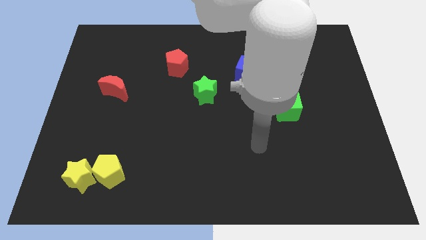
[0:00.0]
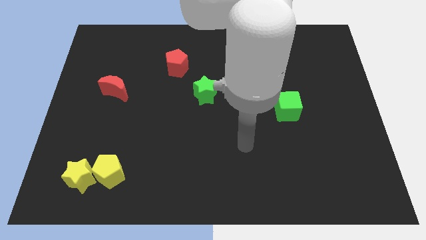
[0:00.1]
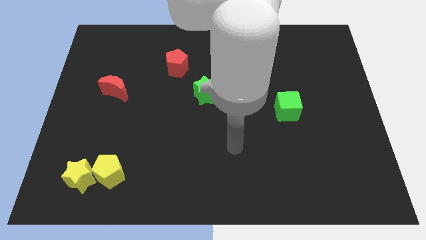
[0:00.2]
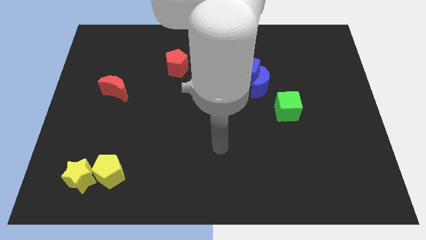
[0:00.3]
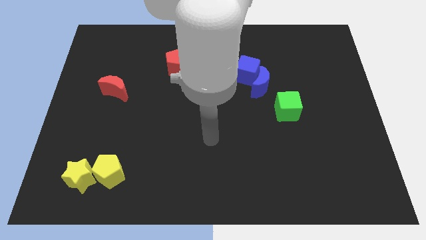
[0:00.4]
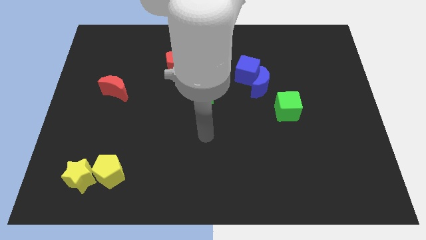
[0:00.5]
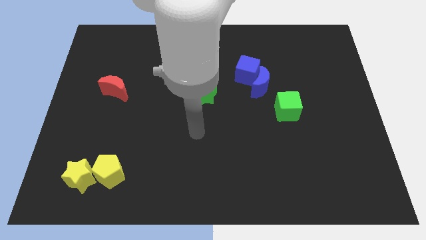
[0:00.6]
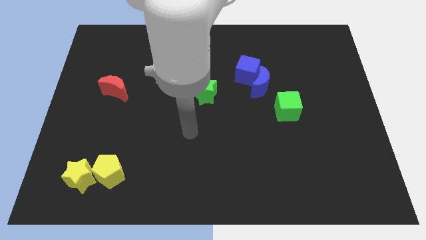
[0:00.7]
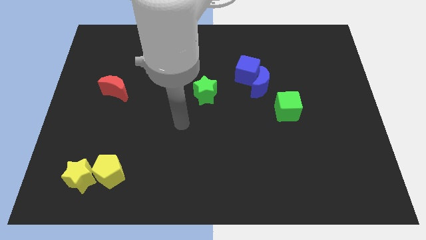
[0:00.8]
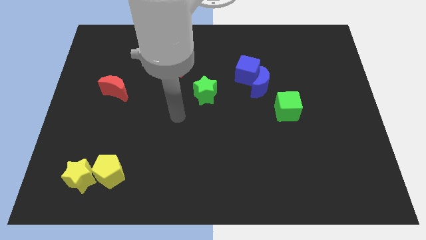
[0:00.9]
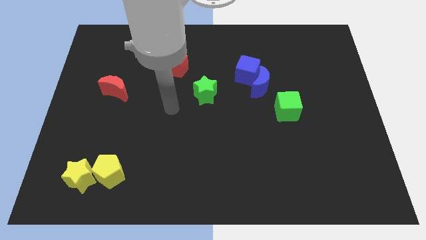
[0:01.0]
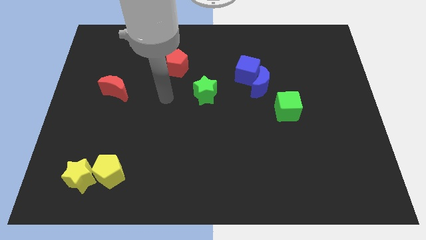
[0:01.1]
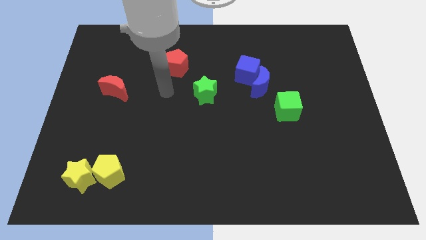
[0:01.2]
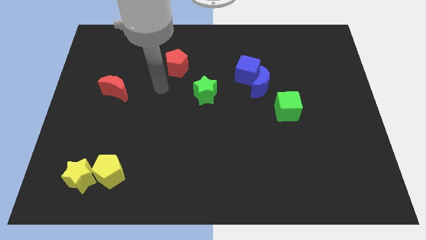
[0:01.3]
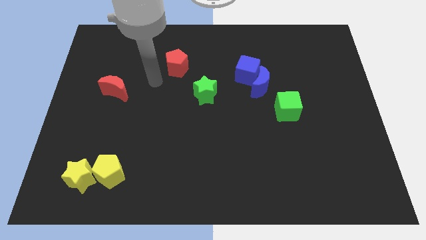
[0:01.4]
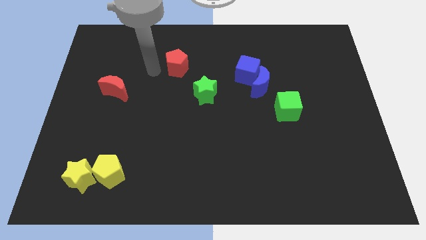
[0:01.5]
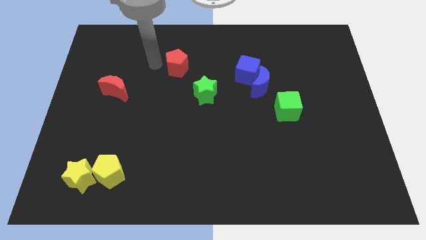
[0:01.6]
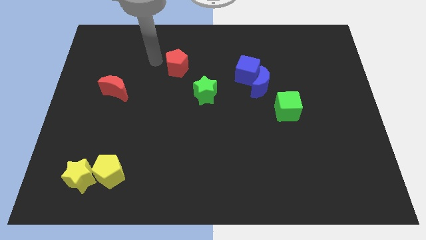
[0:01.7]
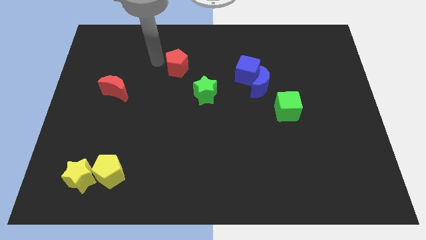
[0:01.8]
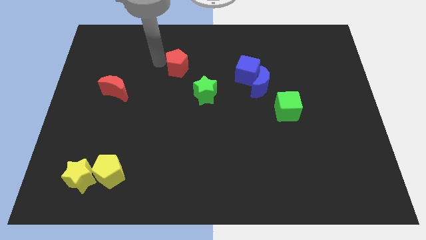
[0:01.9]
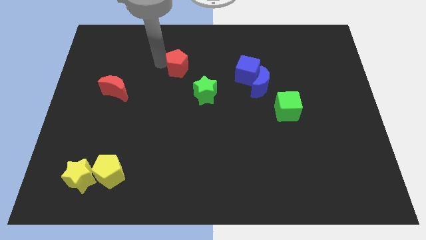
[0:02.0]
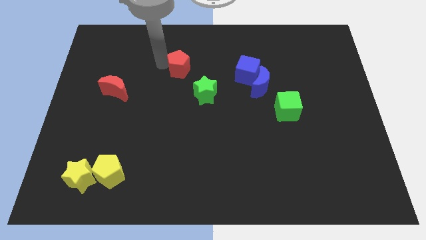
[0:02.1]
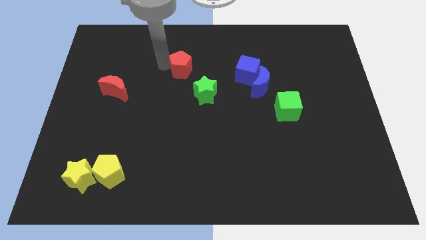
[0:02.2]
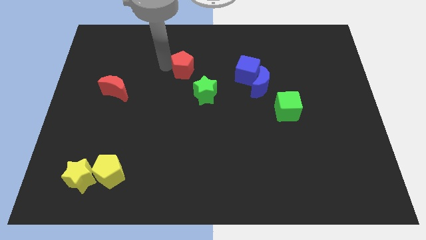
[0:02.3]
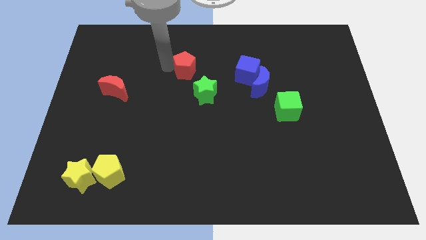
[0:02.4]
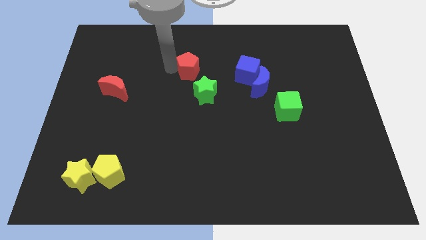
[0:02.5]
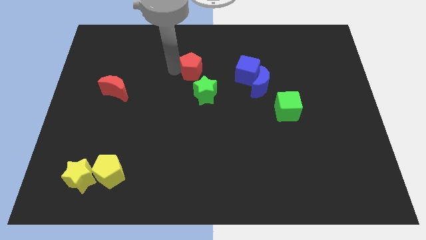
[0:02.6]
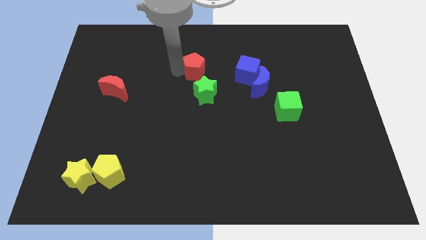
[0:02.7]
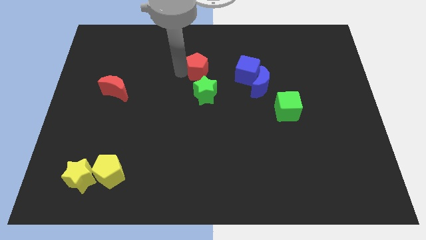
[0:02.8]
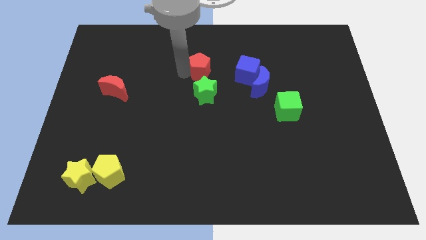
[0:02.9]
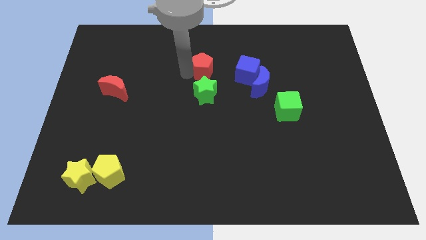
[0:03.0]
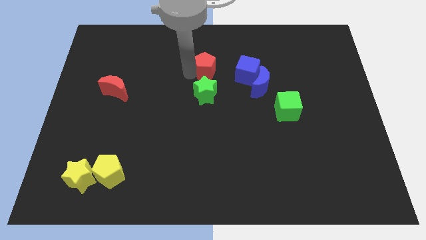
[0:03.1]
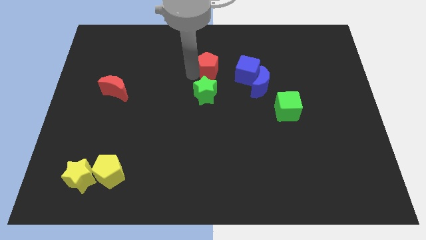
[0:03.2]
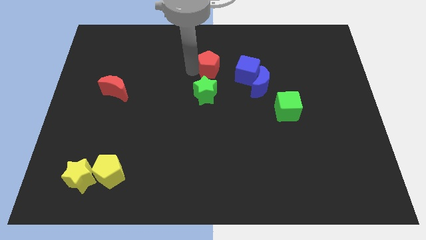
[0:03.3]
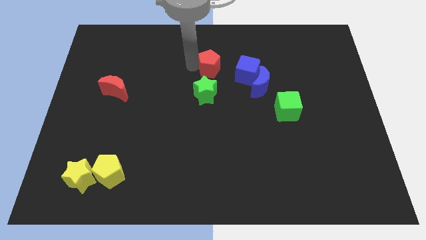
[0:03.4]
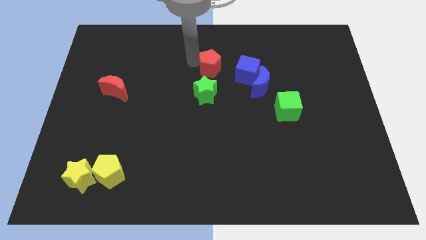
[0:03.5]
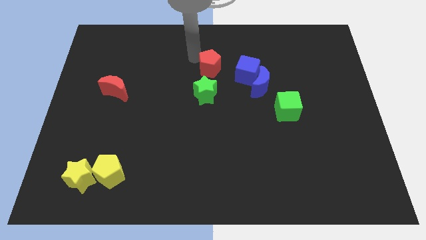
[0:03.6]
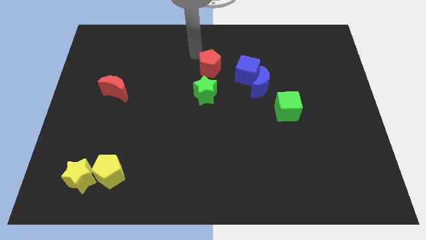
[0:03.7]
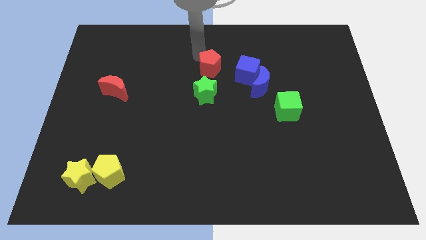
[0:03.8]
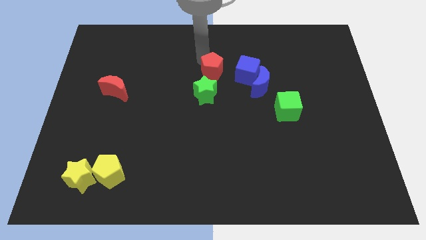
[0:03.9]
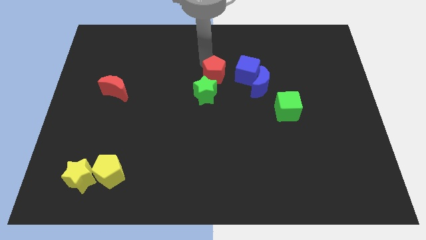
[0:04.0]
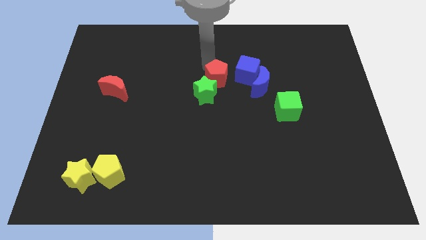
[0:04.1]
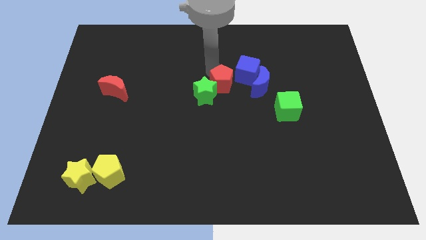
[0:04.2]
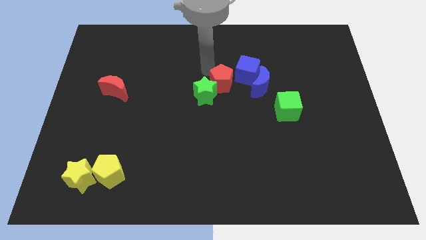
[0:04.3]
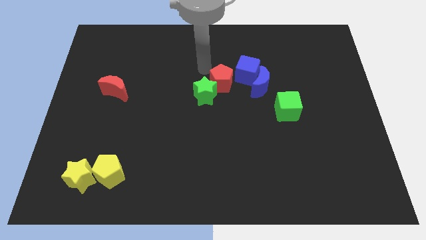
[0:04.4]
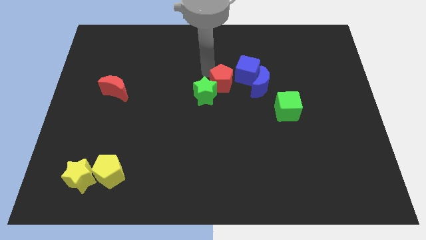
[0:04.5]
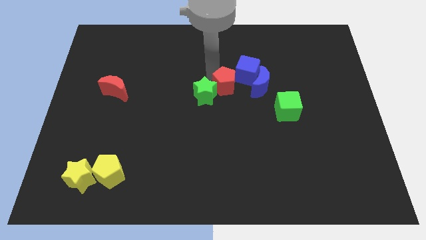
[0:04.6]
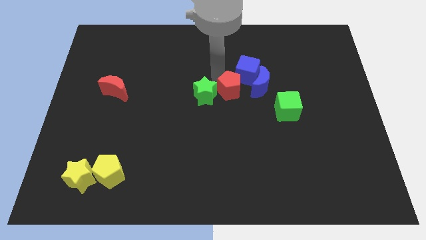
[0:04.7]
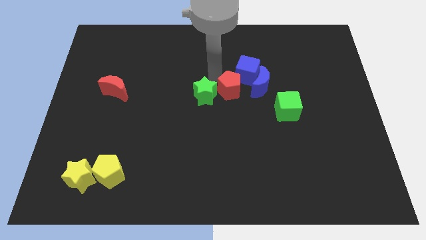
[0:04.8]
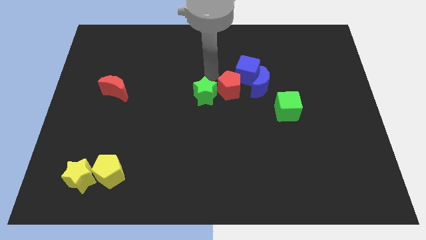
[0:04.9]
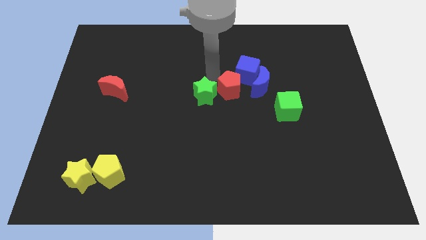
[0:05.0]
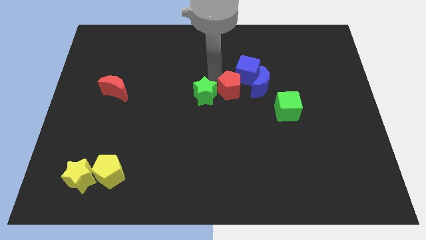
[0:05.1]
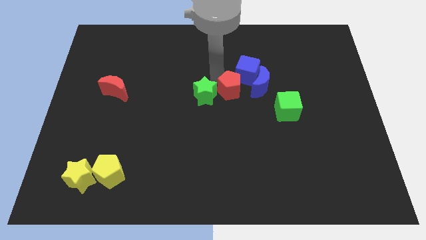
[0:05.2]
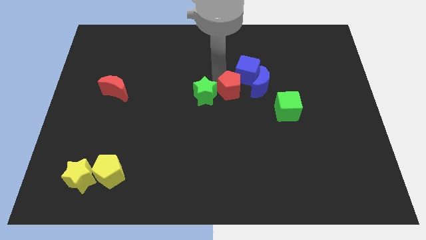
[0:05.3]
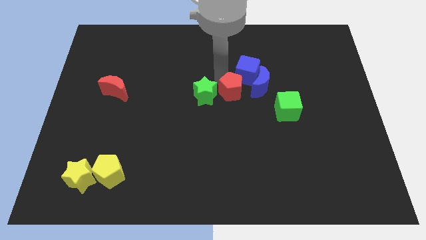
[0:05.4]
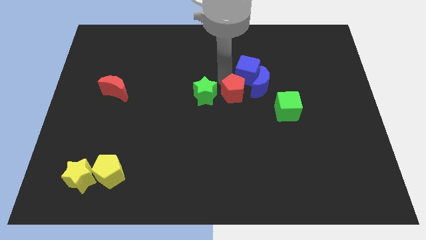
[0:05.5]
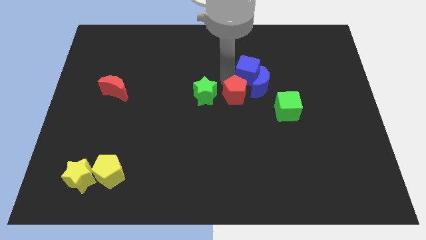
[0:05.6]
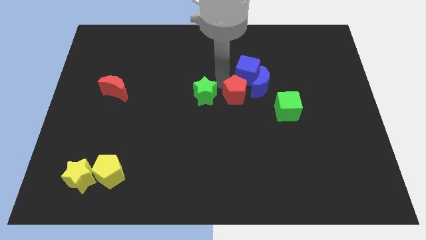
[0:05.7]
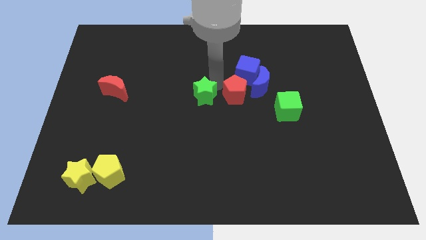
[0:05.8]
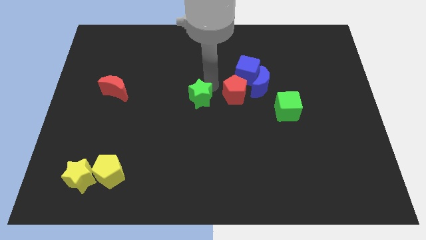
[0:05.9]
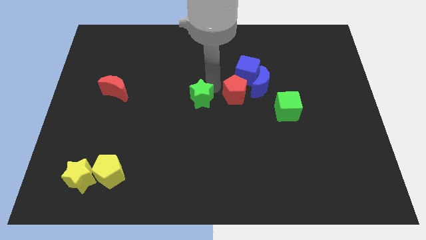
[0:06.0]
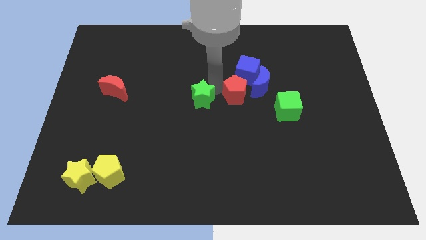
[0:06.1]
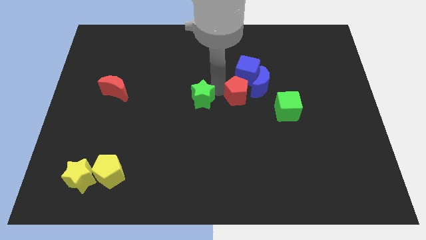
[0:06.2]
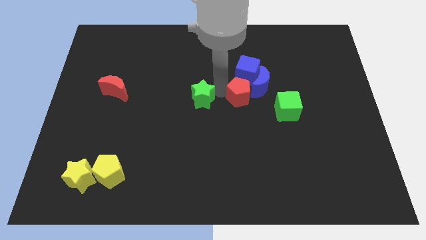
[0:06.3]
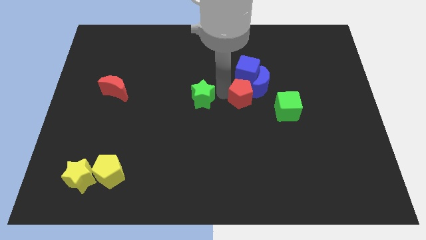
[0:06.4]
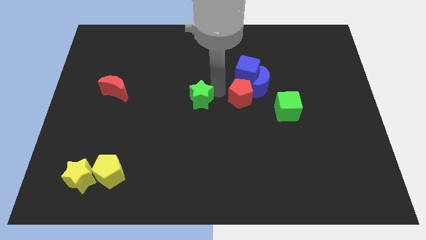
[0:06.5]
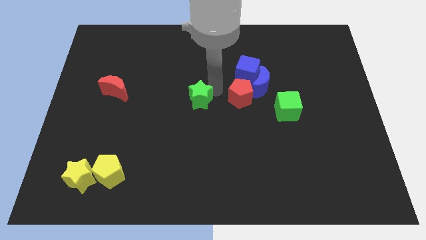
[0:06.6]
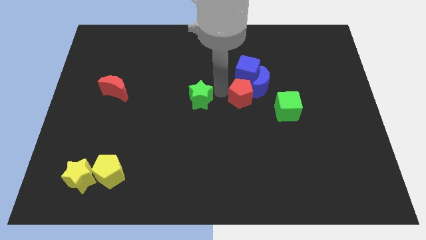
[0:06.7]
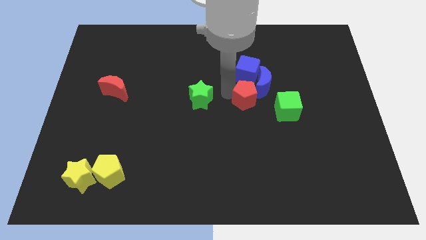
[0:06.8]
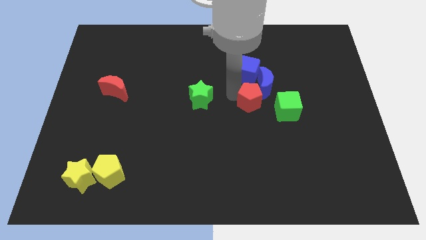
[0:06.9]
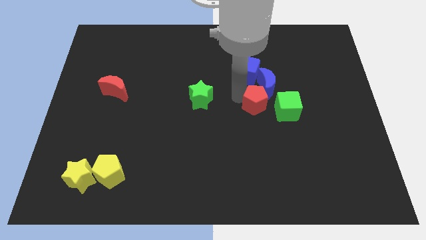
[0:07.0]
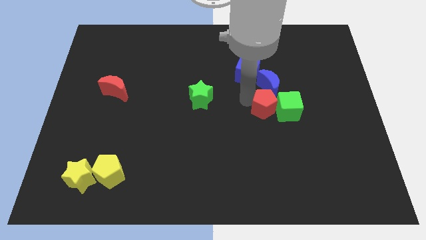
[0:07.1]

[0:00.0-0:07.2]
slide the red pentagon towards the green cube
